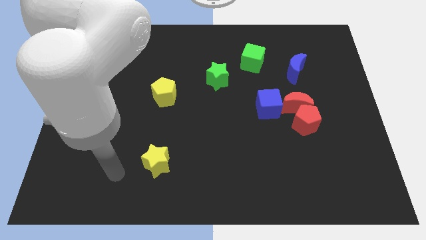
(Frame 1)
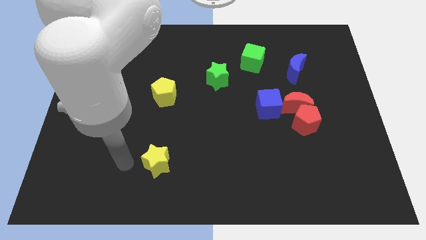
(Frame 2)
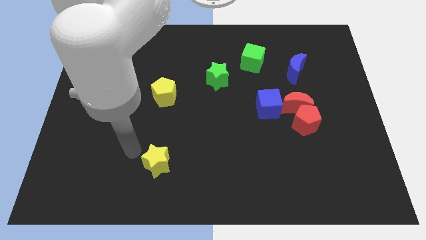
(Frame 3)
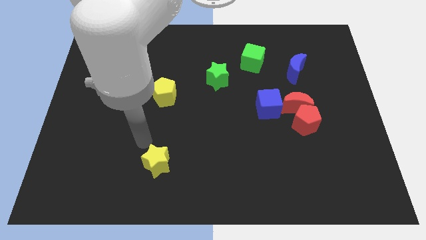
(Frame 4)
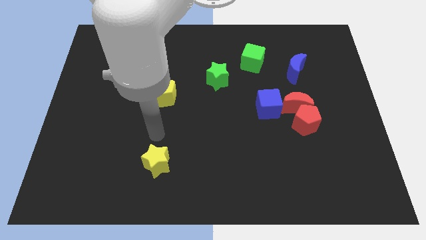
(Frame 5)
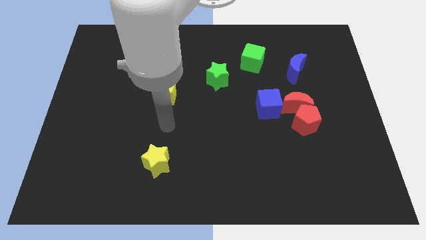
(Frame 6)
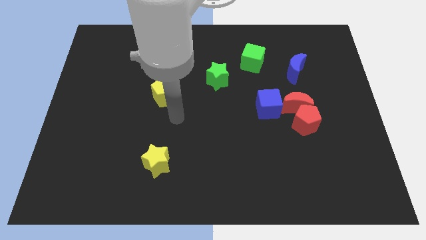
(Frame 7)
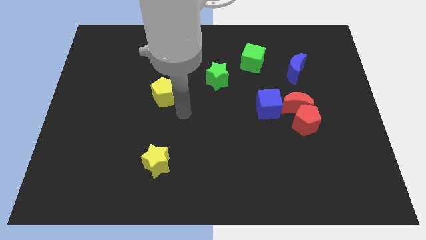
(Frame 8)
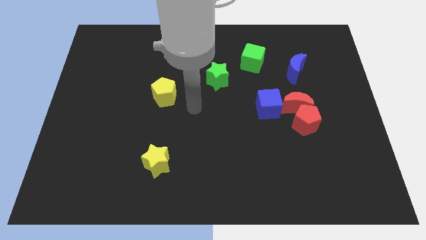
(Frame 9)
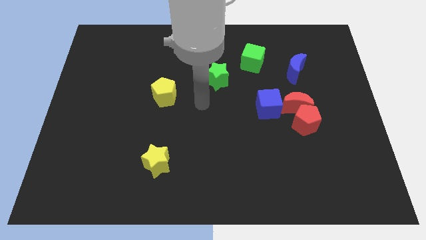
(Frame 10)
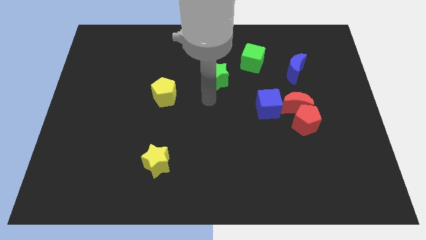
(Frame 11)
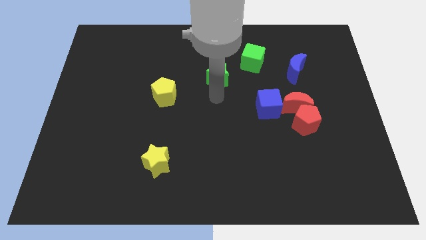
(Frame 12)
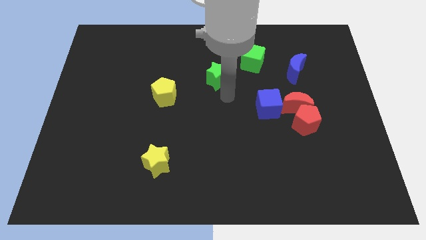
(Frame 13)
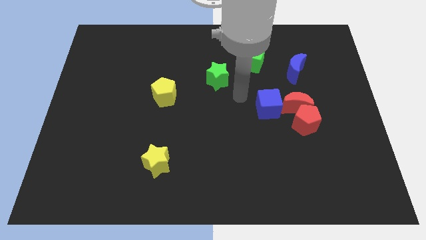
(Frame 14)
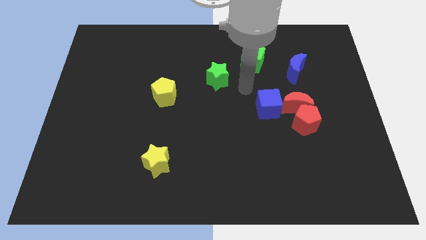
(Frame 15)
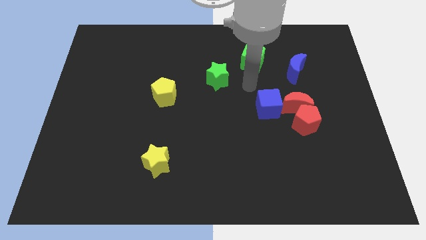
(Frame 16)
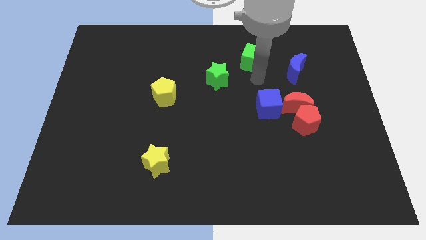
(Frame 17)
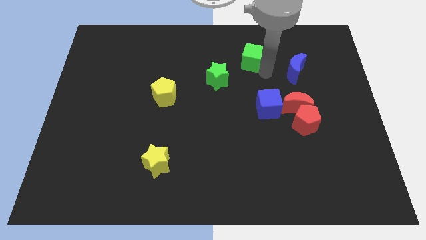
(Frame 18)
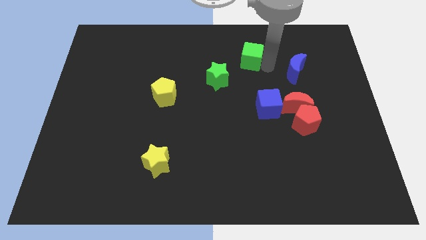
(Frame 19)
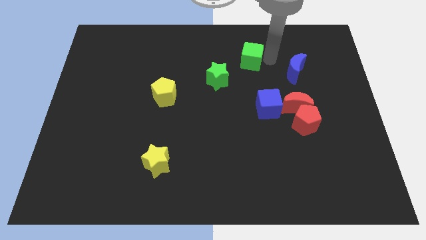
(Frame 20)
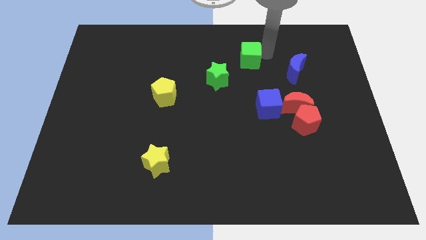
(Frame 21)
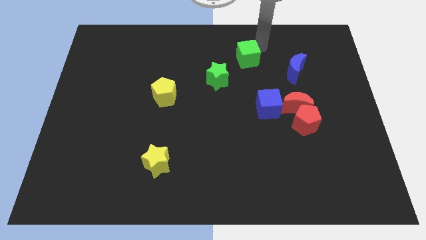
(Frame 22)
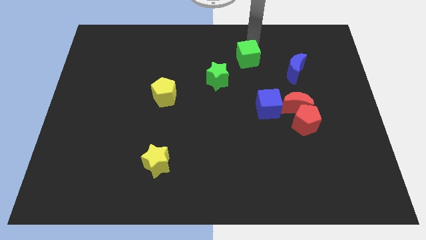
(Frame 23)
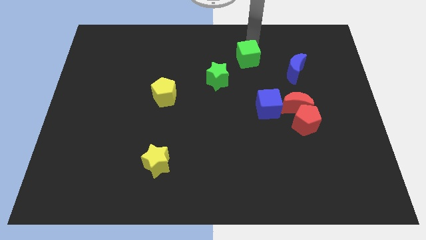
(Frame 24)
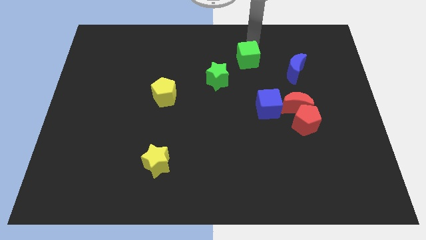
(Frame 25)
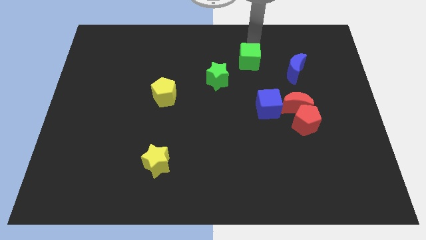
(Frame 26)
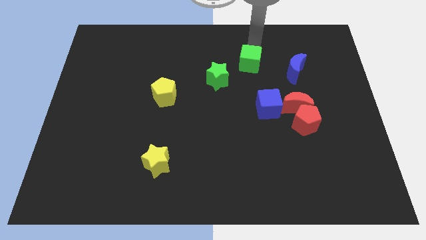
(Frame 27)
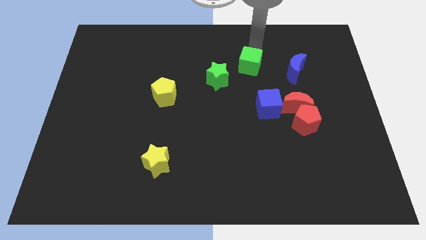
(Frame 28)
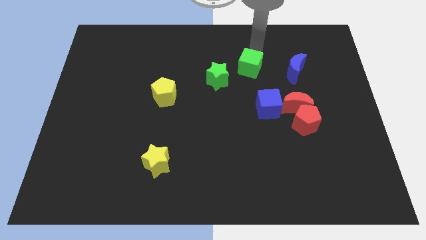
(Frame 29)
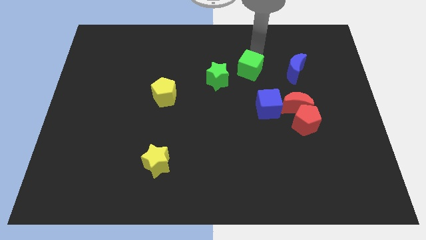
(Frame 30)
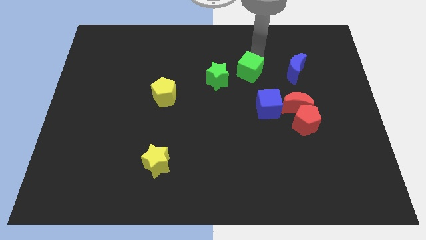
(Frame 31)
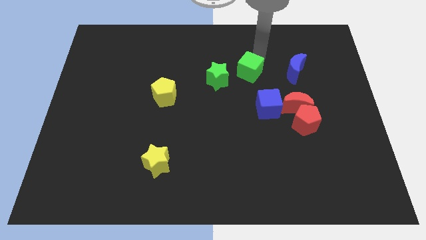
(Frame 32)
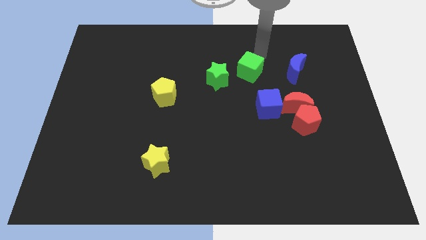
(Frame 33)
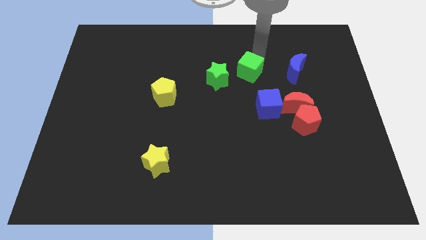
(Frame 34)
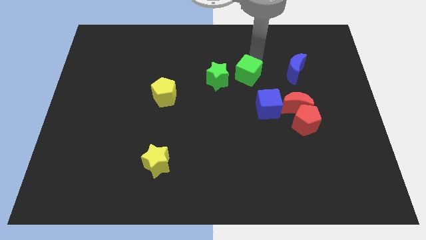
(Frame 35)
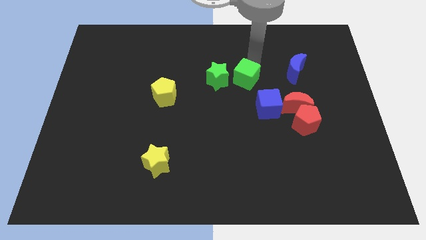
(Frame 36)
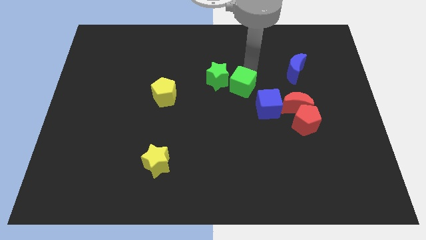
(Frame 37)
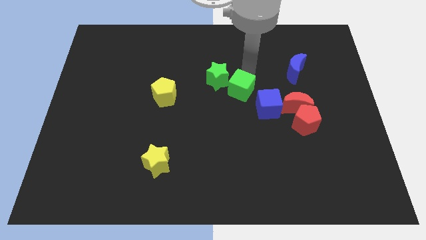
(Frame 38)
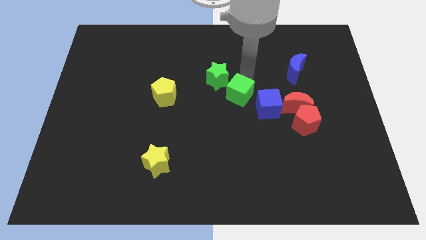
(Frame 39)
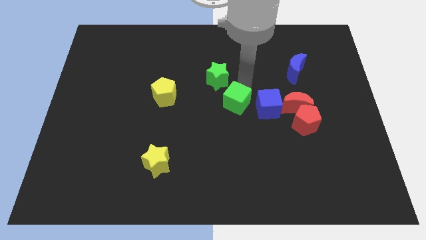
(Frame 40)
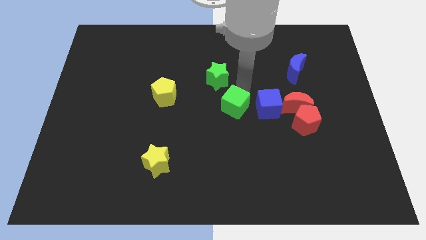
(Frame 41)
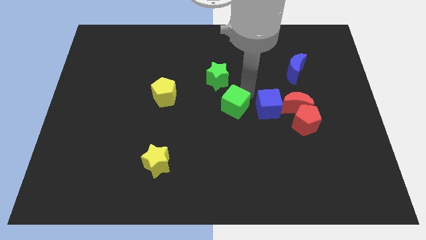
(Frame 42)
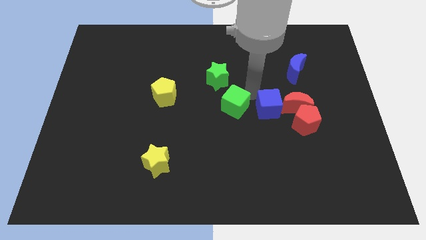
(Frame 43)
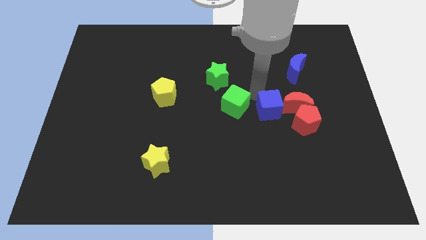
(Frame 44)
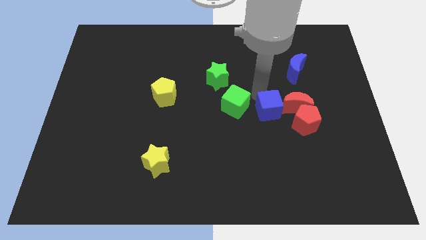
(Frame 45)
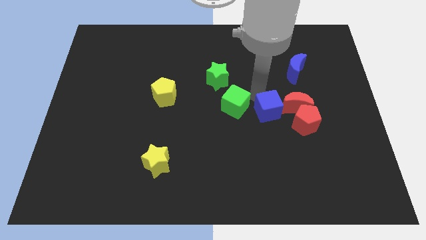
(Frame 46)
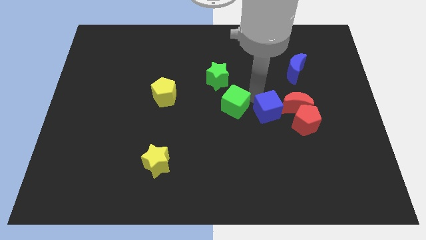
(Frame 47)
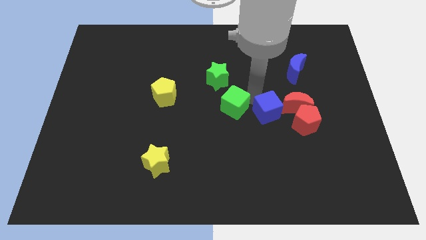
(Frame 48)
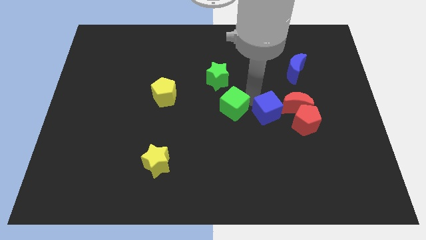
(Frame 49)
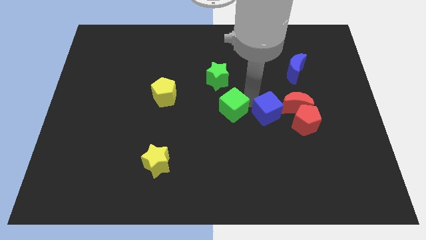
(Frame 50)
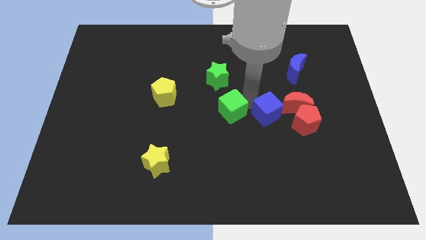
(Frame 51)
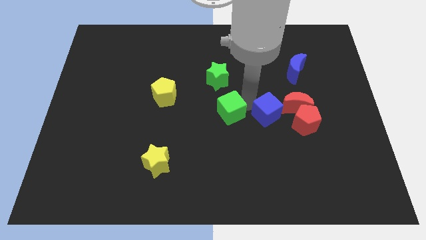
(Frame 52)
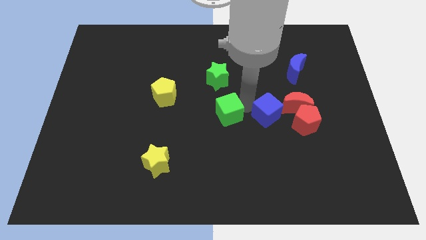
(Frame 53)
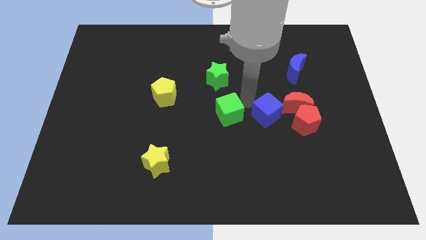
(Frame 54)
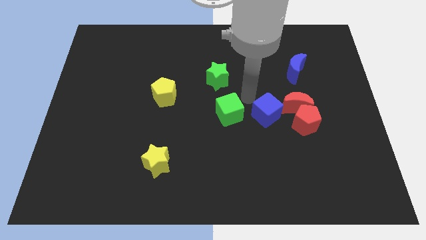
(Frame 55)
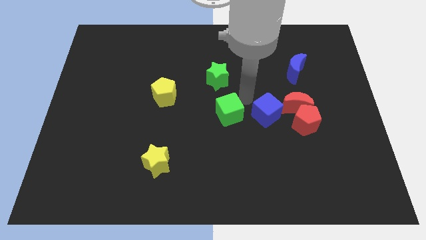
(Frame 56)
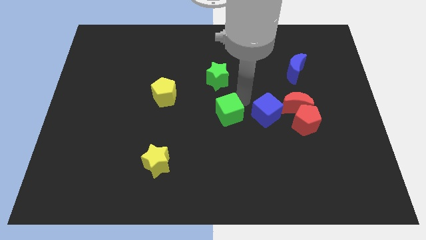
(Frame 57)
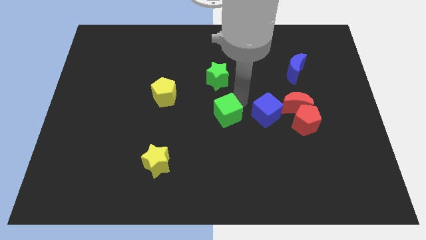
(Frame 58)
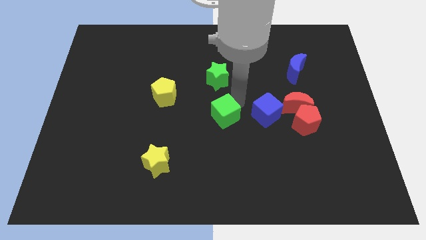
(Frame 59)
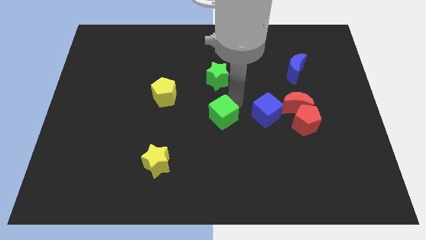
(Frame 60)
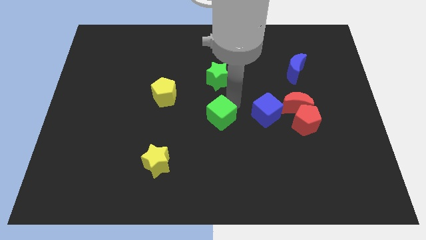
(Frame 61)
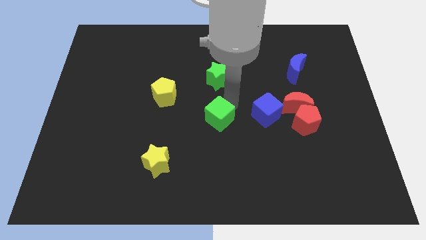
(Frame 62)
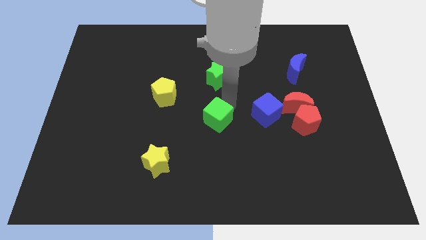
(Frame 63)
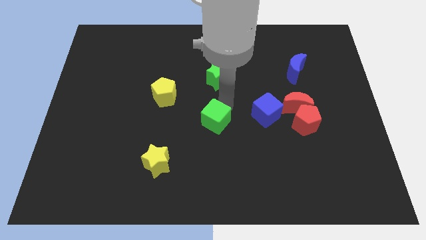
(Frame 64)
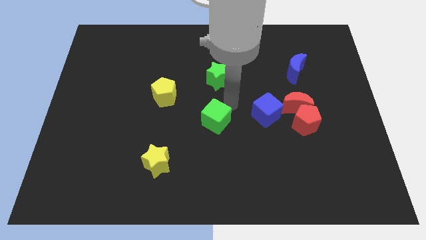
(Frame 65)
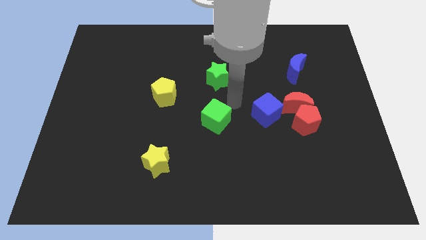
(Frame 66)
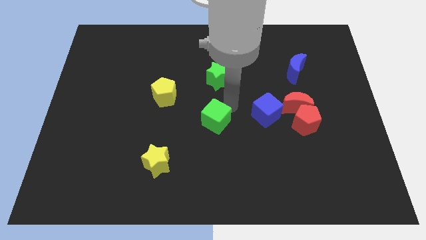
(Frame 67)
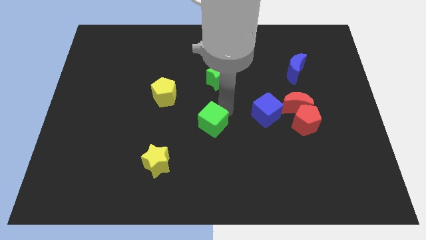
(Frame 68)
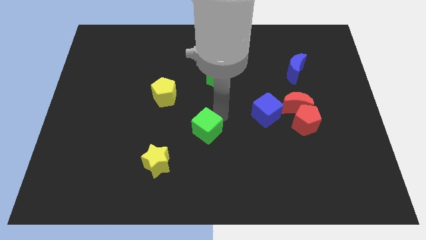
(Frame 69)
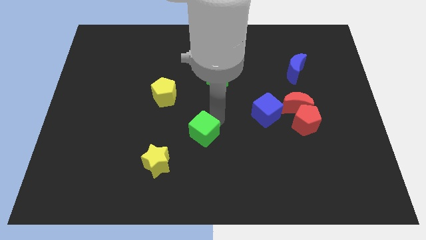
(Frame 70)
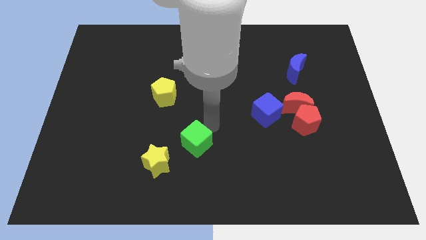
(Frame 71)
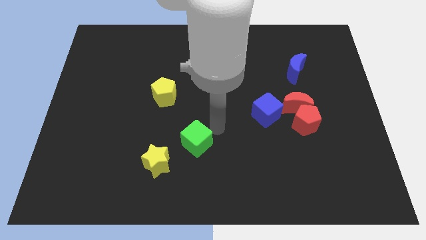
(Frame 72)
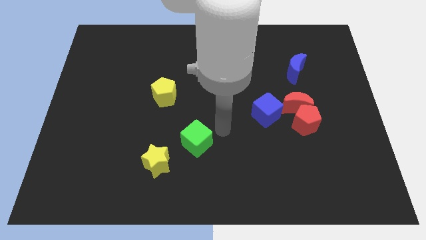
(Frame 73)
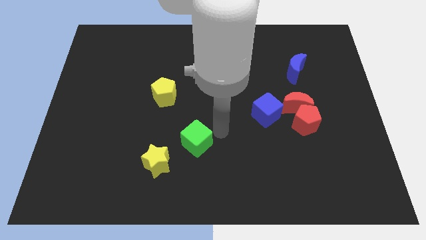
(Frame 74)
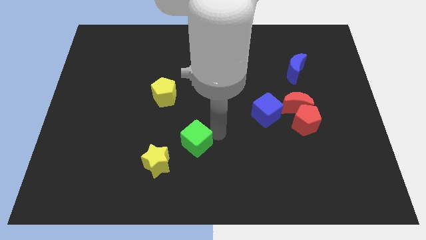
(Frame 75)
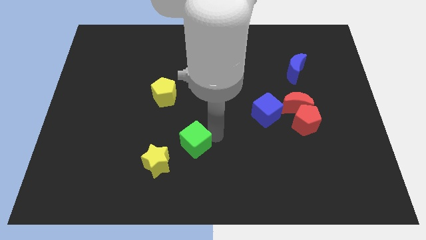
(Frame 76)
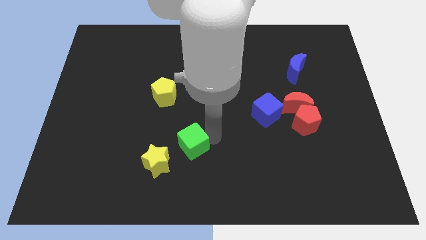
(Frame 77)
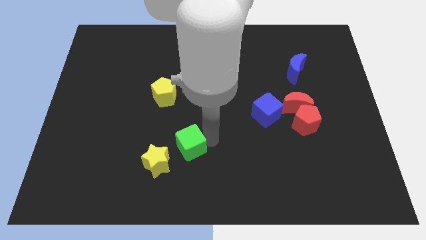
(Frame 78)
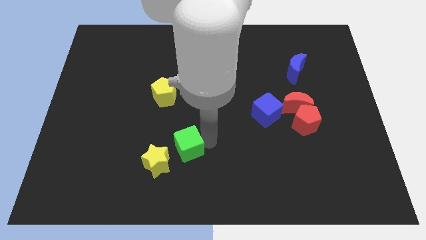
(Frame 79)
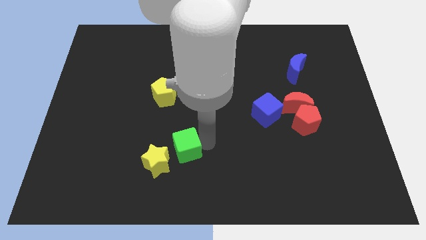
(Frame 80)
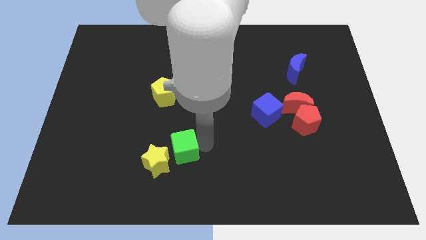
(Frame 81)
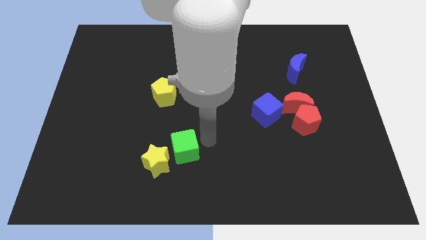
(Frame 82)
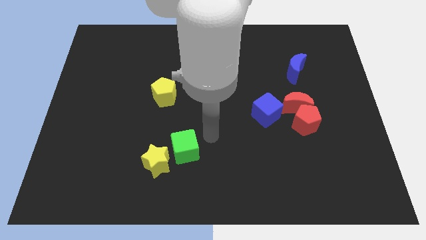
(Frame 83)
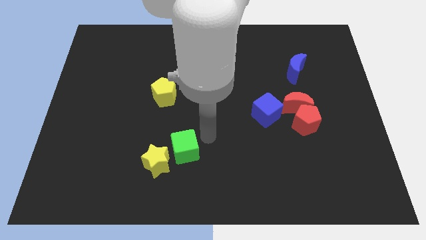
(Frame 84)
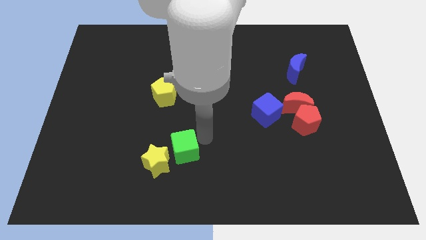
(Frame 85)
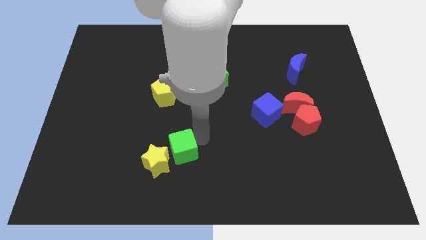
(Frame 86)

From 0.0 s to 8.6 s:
slide the green cube close to the yellow star
